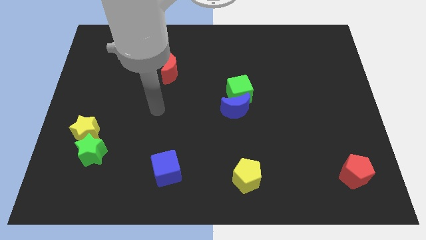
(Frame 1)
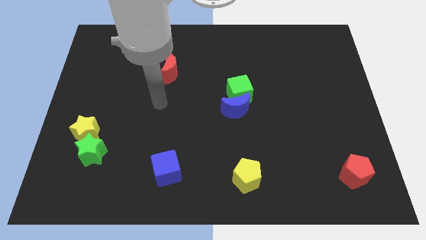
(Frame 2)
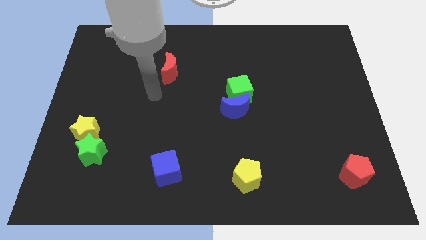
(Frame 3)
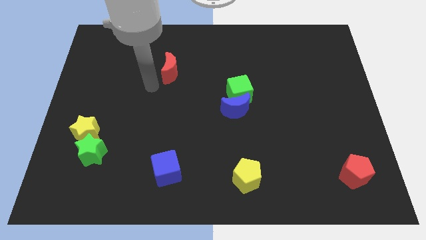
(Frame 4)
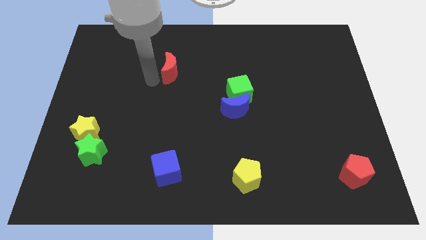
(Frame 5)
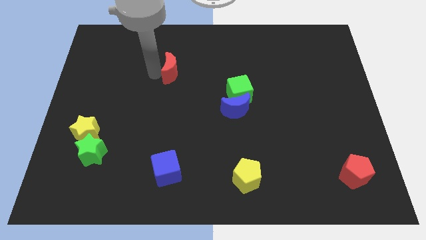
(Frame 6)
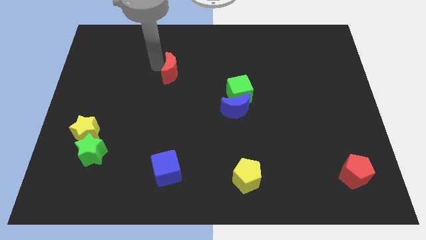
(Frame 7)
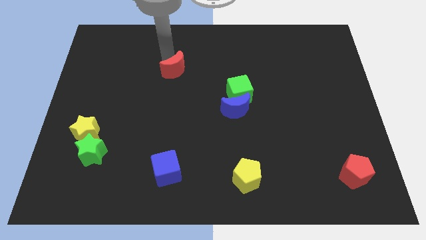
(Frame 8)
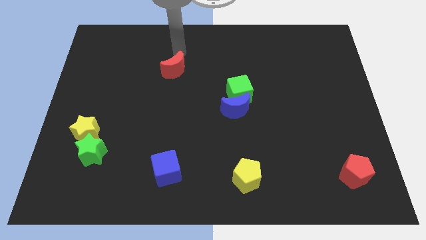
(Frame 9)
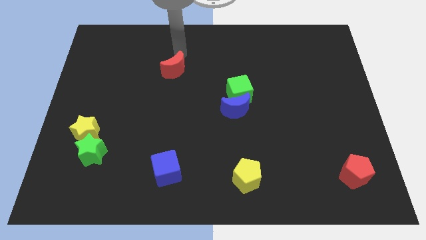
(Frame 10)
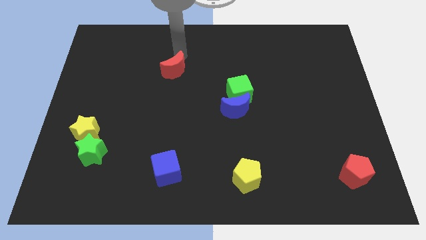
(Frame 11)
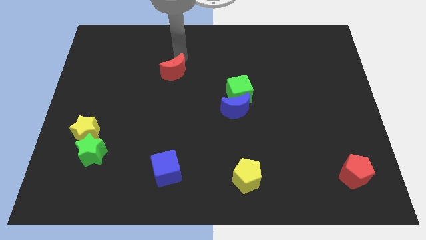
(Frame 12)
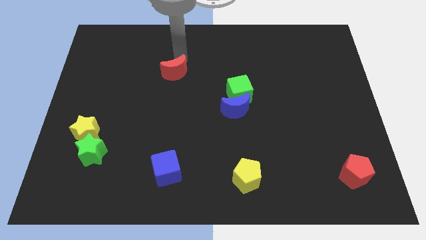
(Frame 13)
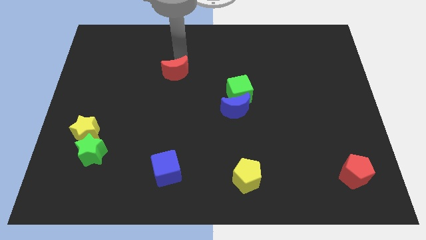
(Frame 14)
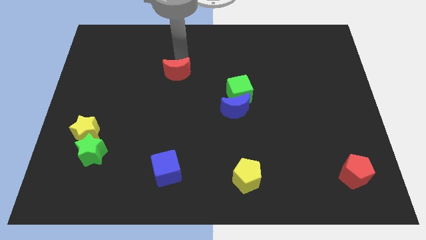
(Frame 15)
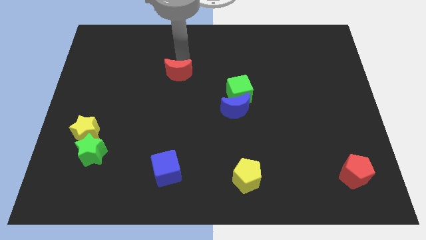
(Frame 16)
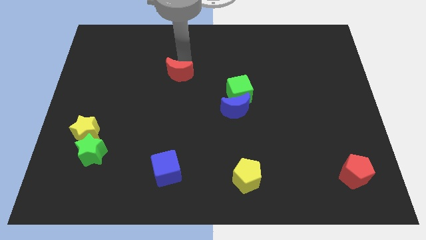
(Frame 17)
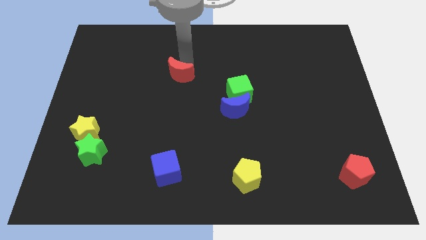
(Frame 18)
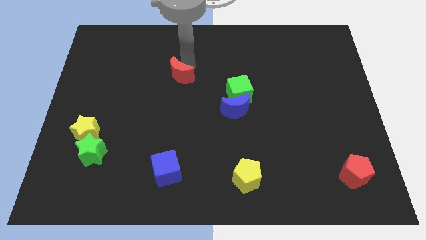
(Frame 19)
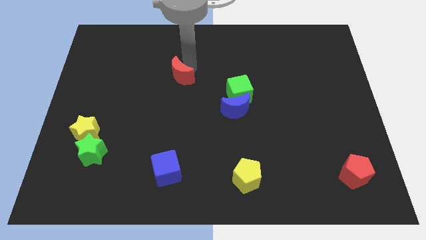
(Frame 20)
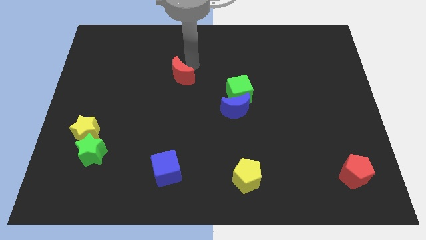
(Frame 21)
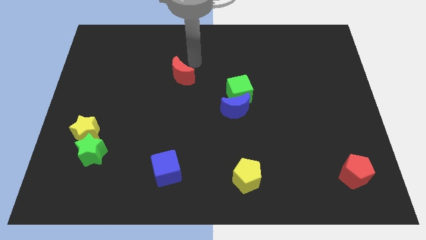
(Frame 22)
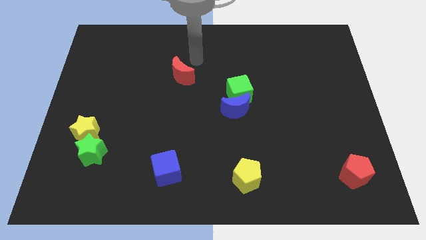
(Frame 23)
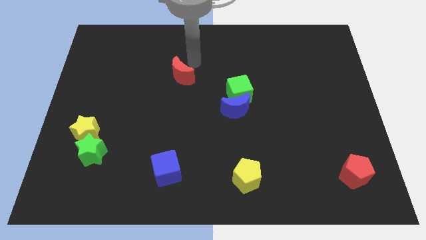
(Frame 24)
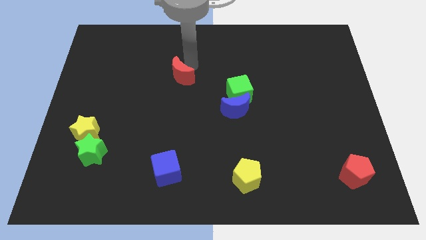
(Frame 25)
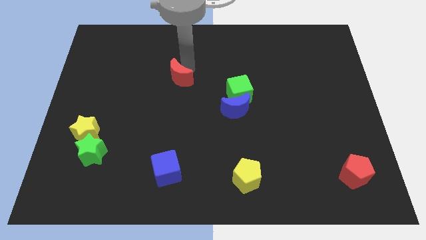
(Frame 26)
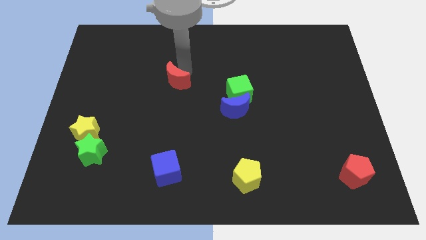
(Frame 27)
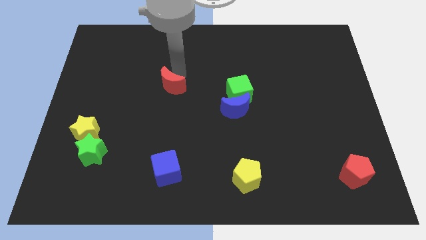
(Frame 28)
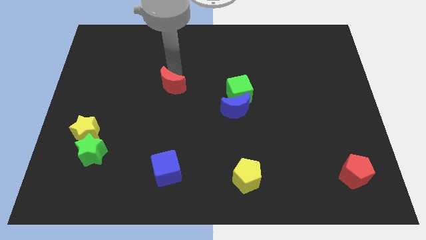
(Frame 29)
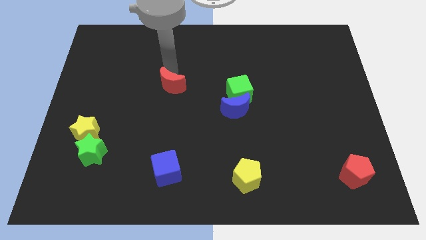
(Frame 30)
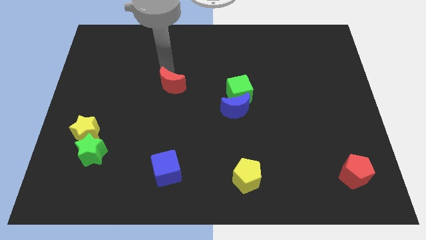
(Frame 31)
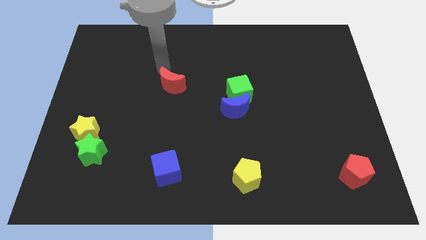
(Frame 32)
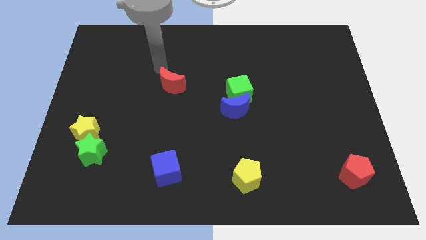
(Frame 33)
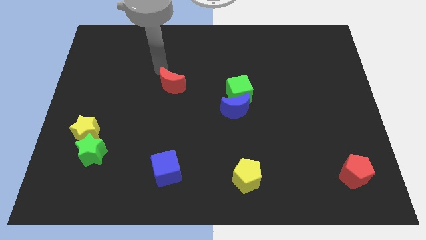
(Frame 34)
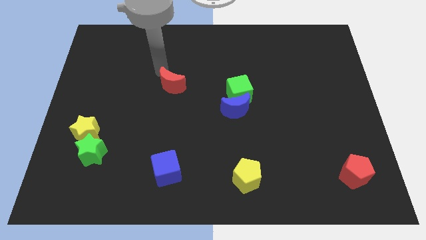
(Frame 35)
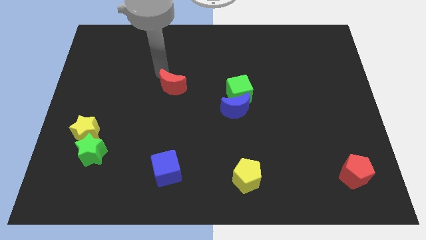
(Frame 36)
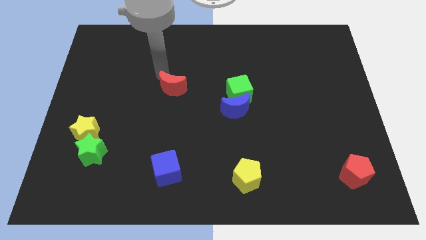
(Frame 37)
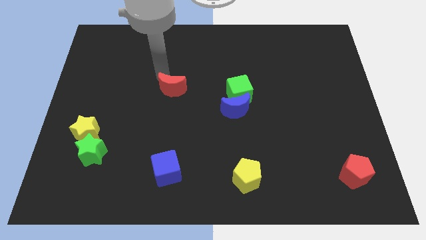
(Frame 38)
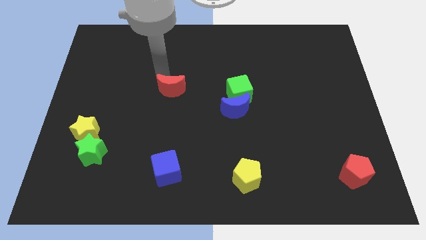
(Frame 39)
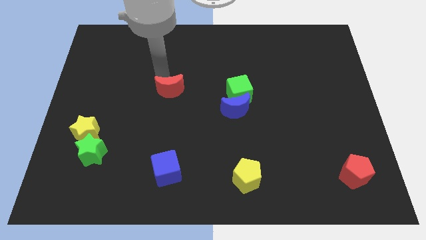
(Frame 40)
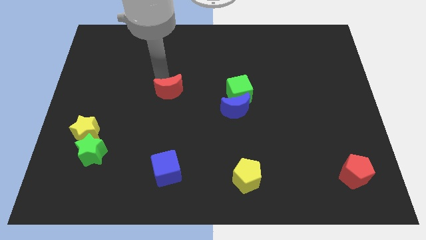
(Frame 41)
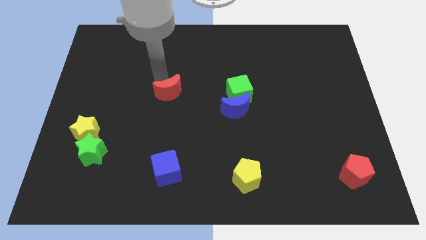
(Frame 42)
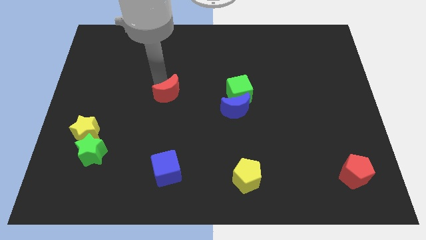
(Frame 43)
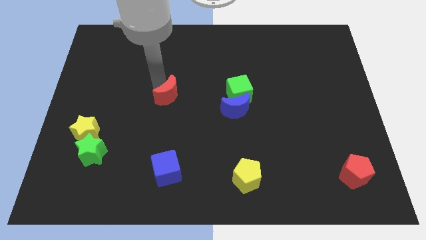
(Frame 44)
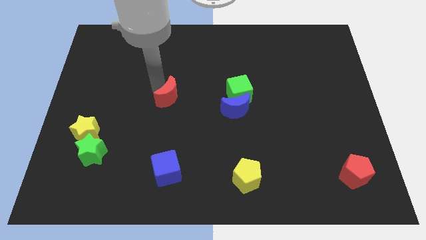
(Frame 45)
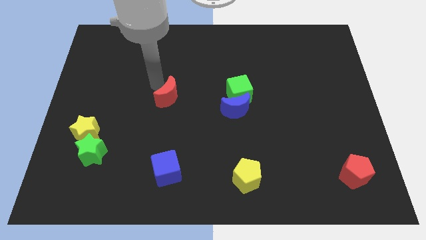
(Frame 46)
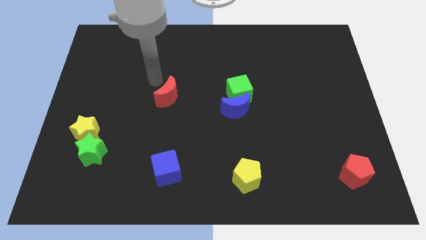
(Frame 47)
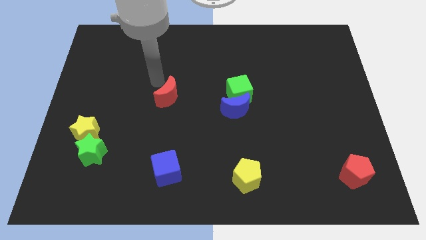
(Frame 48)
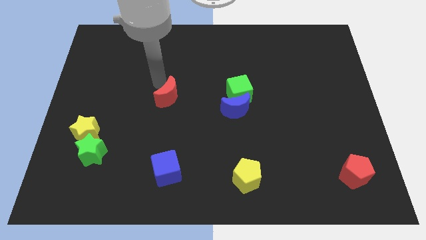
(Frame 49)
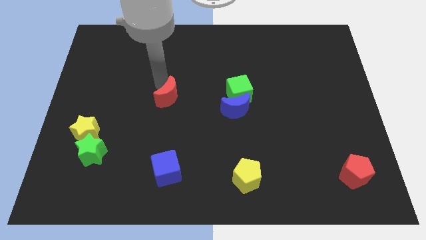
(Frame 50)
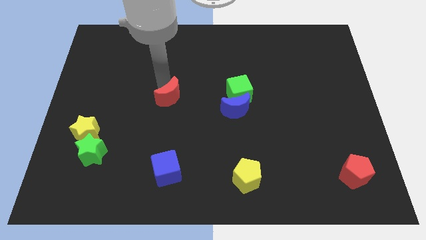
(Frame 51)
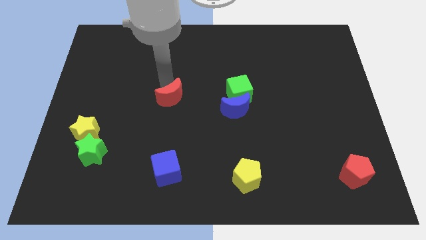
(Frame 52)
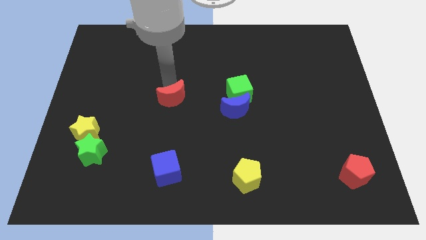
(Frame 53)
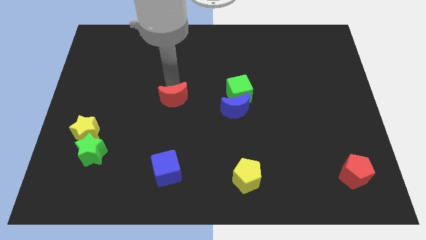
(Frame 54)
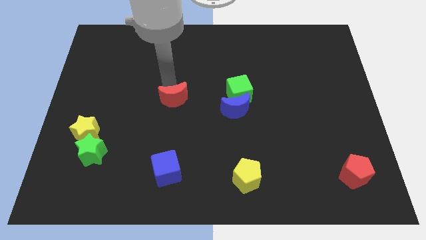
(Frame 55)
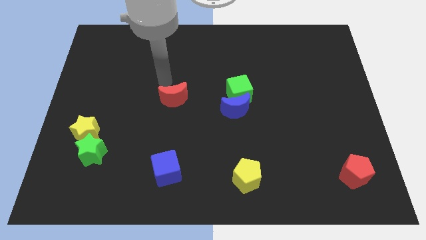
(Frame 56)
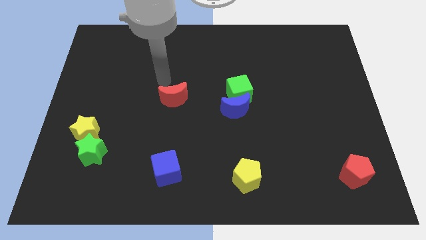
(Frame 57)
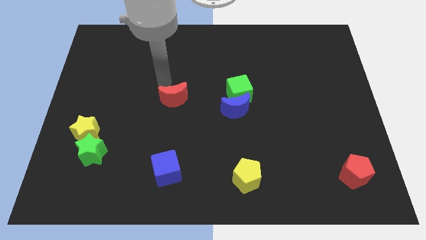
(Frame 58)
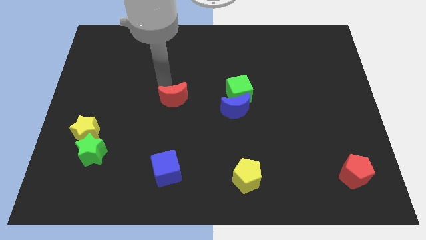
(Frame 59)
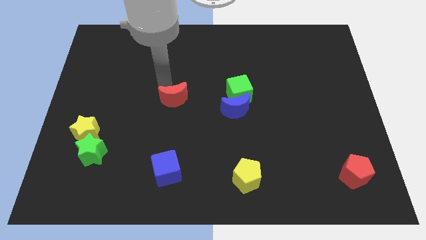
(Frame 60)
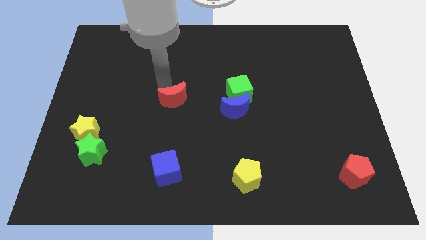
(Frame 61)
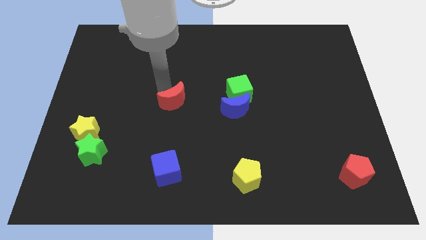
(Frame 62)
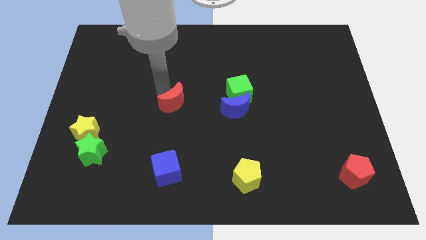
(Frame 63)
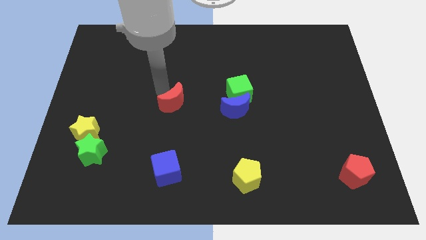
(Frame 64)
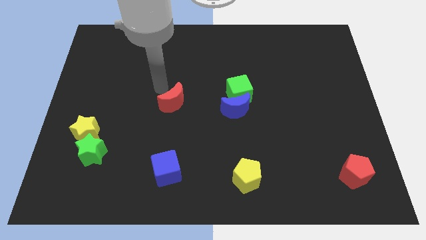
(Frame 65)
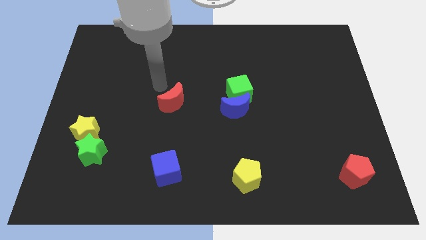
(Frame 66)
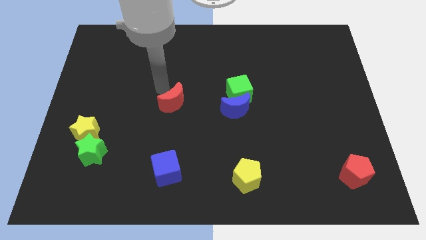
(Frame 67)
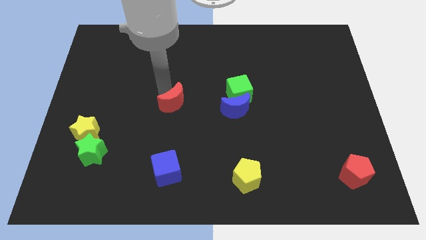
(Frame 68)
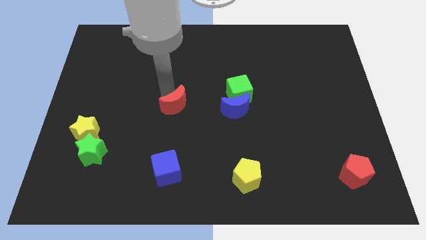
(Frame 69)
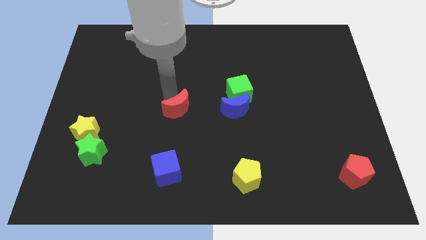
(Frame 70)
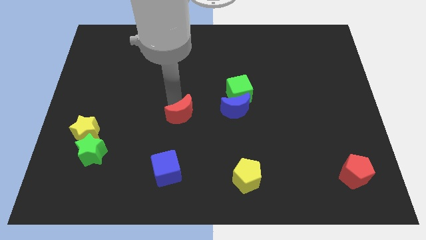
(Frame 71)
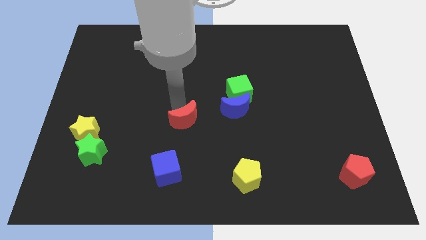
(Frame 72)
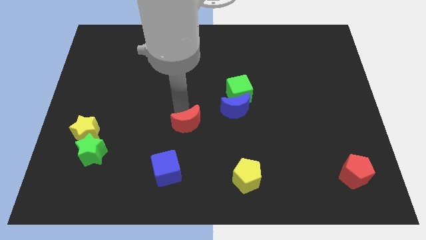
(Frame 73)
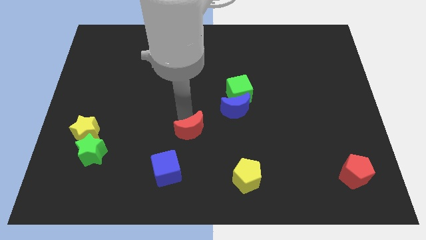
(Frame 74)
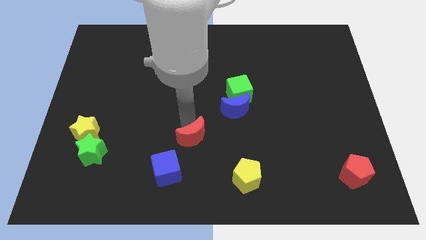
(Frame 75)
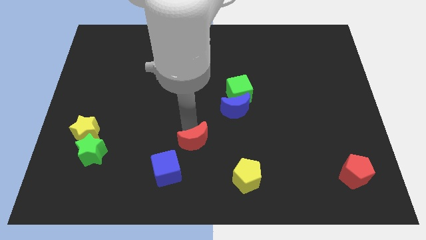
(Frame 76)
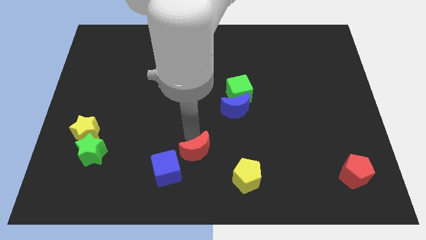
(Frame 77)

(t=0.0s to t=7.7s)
slide the red moon just right of the blue cube
